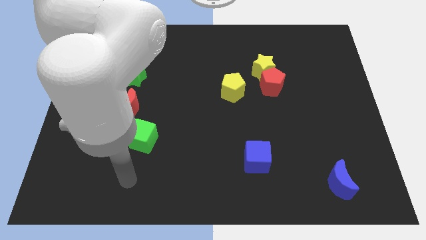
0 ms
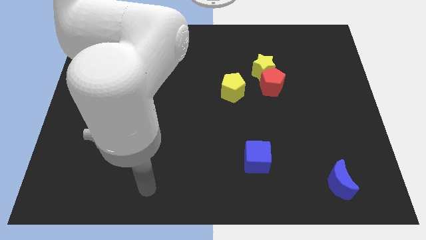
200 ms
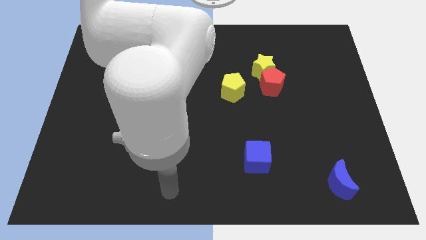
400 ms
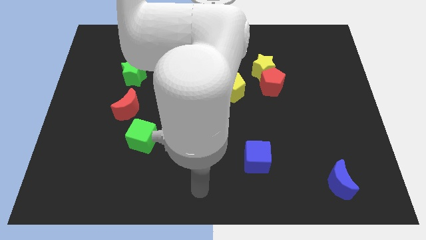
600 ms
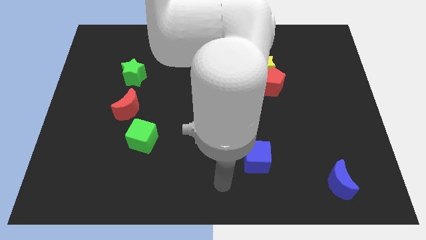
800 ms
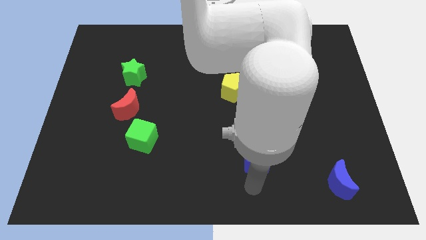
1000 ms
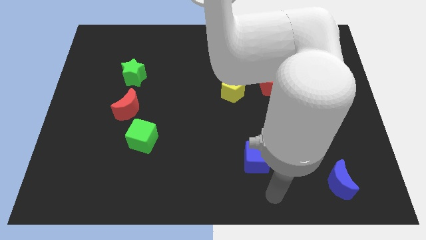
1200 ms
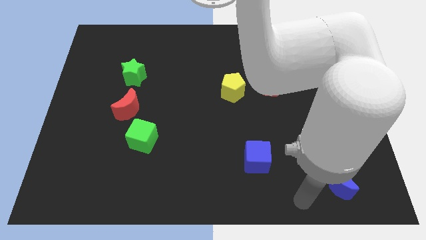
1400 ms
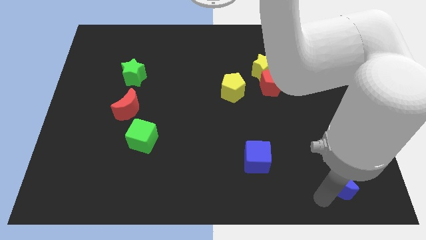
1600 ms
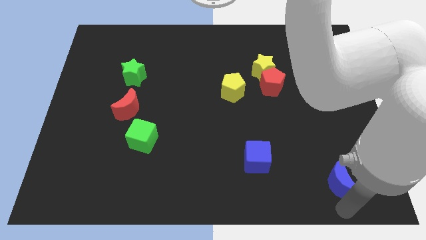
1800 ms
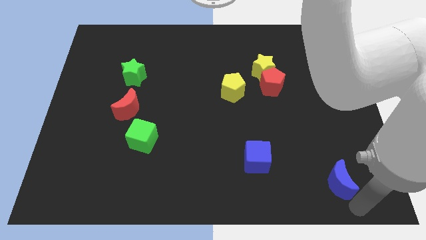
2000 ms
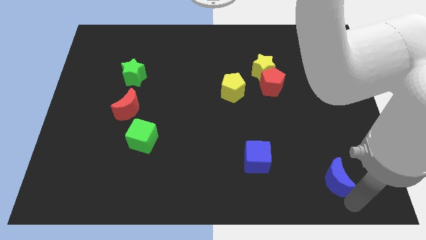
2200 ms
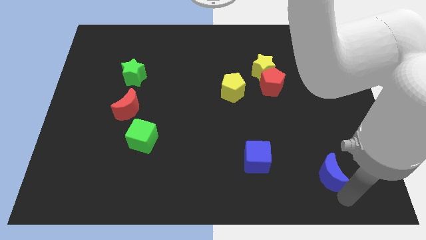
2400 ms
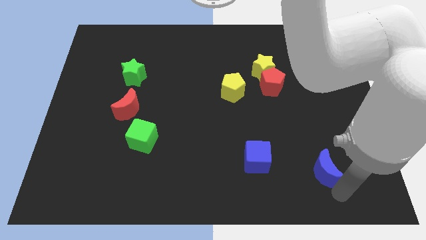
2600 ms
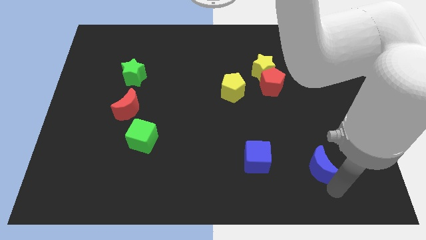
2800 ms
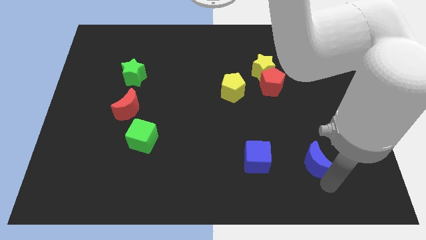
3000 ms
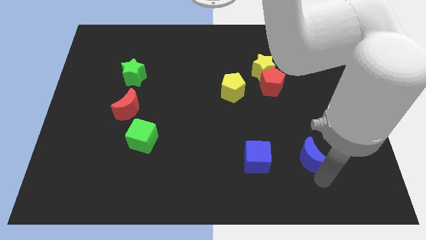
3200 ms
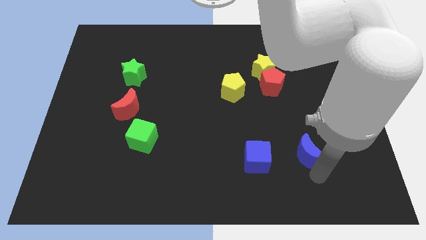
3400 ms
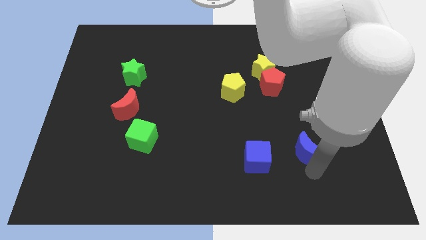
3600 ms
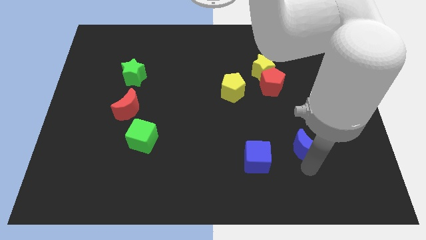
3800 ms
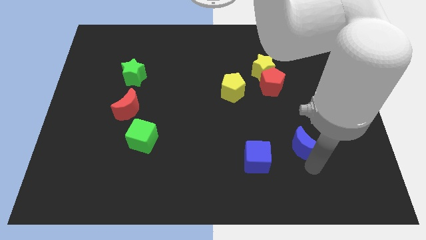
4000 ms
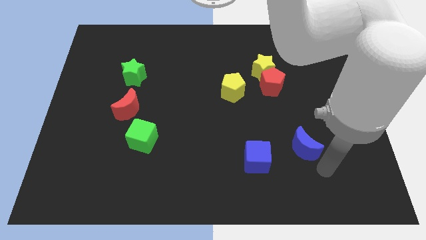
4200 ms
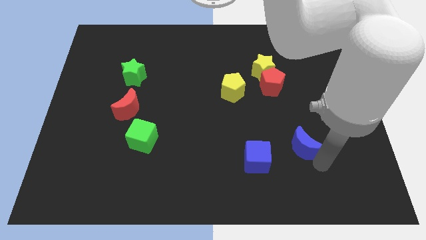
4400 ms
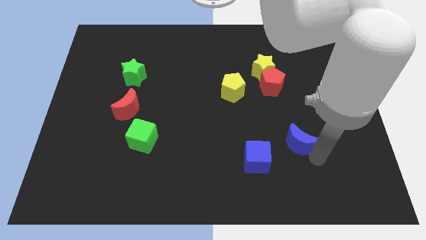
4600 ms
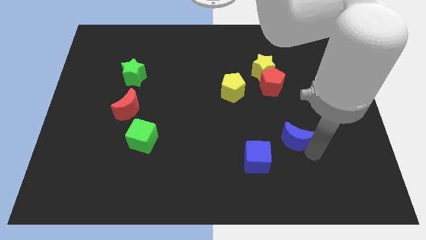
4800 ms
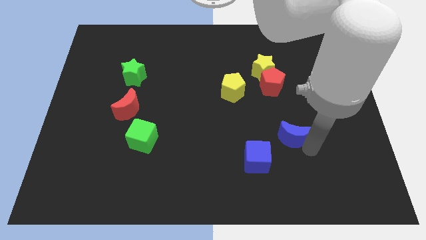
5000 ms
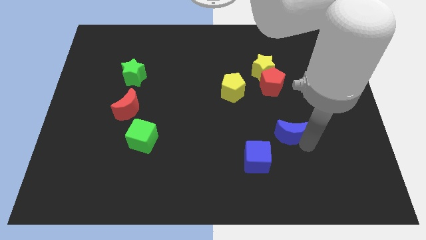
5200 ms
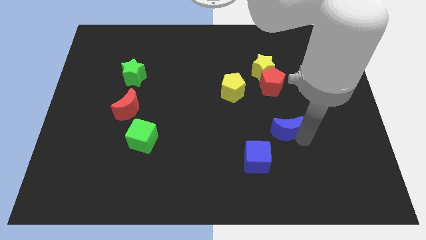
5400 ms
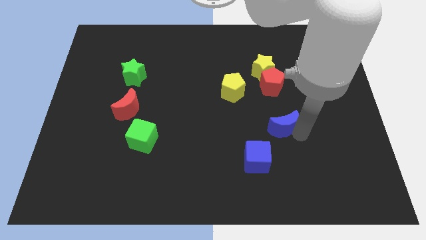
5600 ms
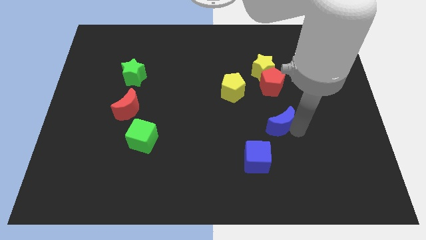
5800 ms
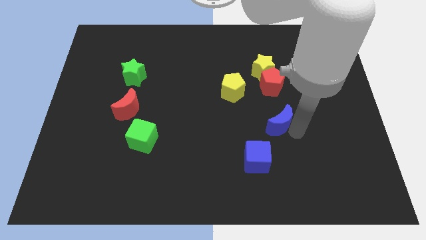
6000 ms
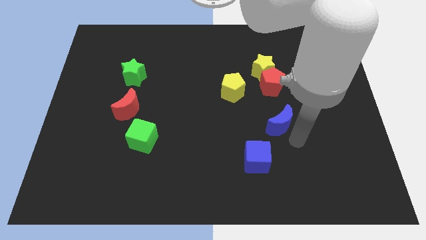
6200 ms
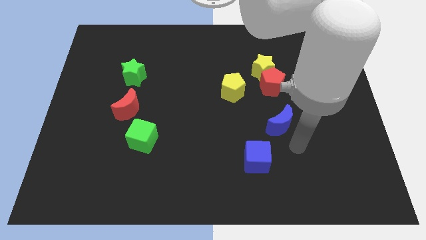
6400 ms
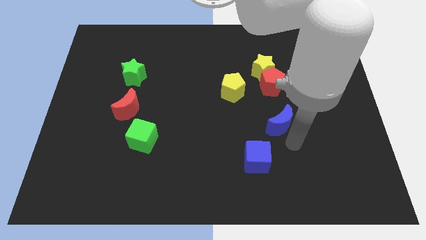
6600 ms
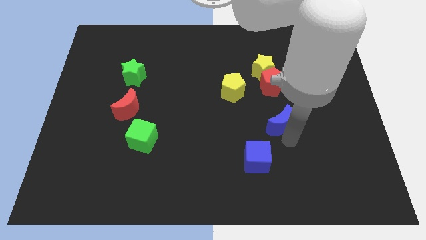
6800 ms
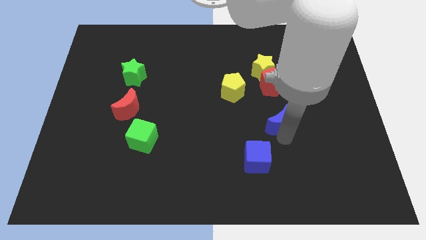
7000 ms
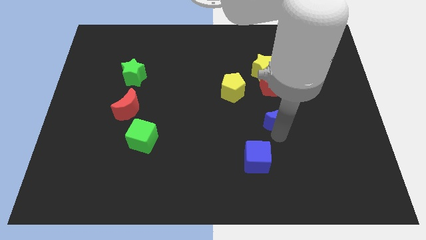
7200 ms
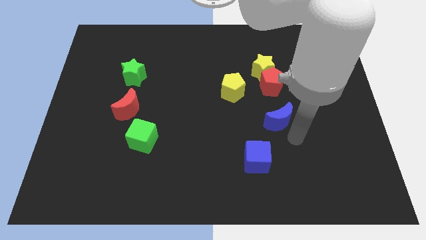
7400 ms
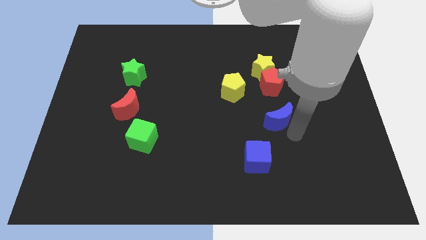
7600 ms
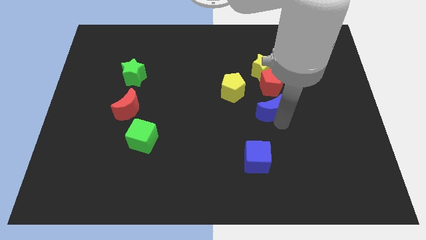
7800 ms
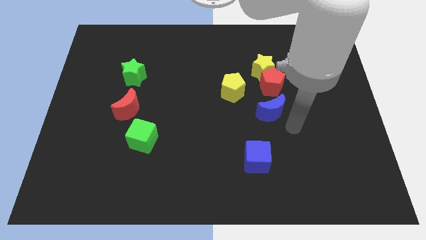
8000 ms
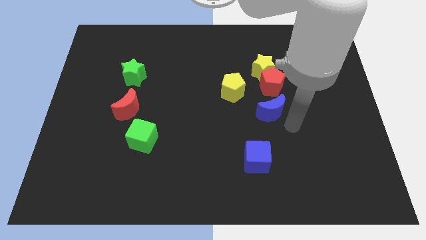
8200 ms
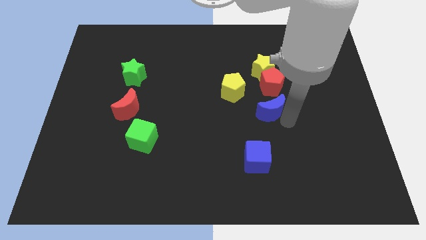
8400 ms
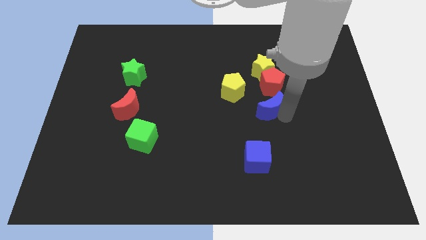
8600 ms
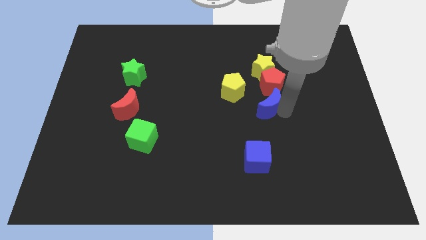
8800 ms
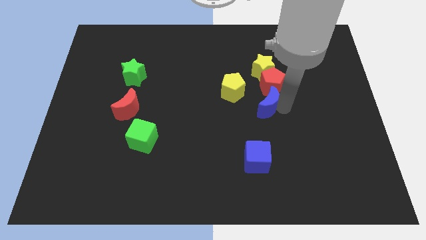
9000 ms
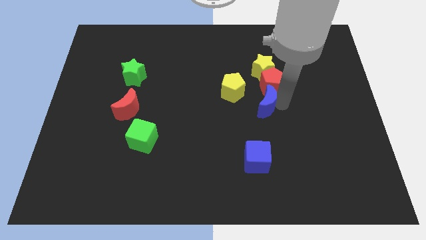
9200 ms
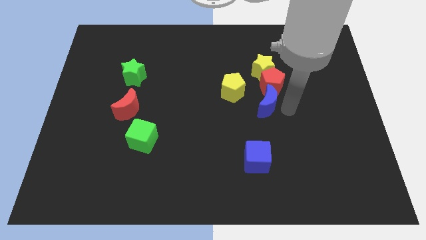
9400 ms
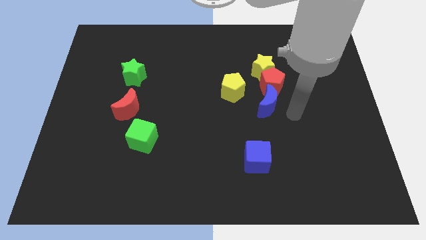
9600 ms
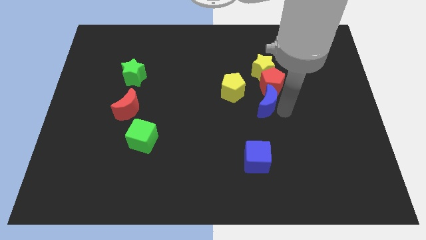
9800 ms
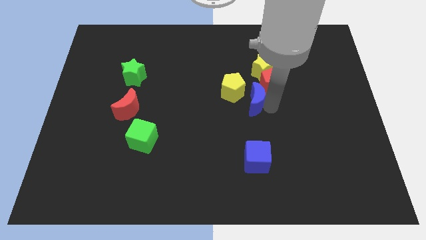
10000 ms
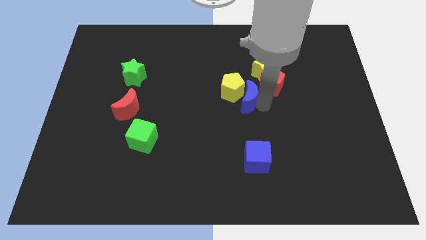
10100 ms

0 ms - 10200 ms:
move the blue moon towards the yellow pentagon

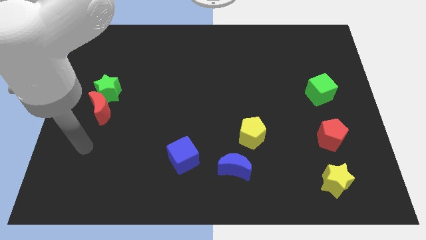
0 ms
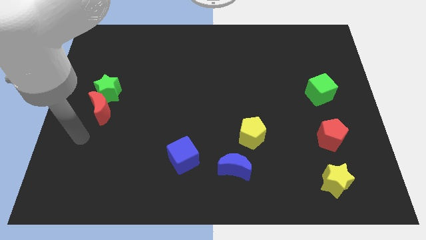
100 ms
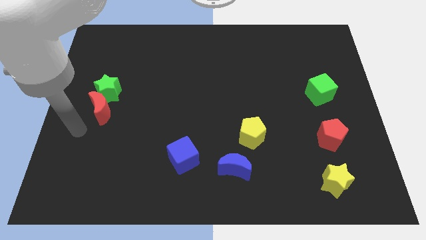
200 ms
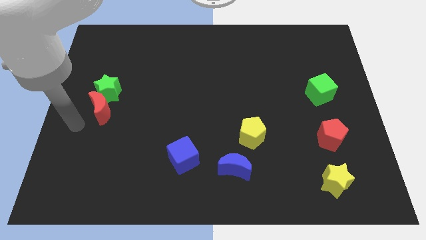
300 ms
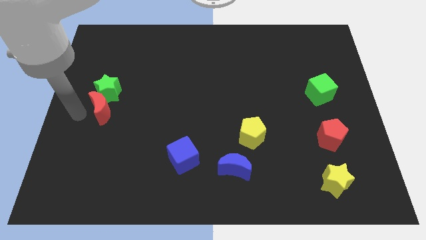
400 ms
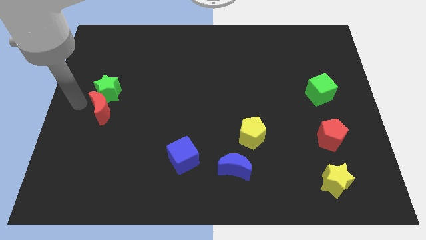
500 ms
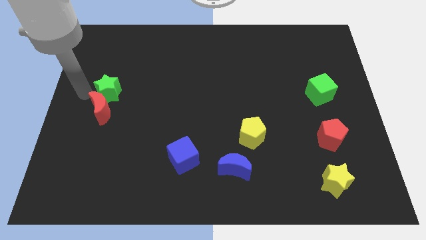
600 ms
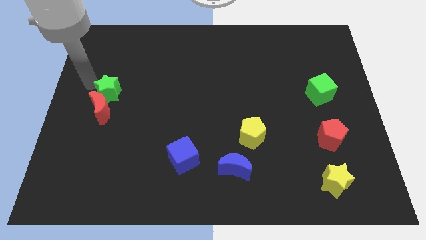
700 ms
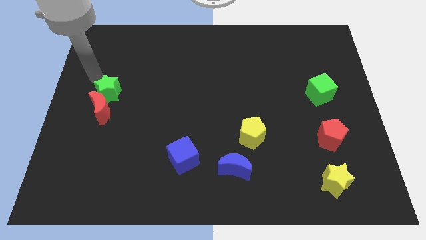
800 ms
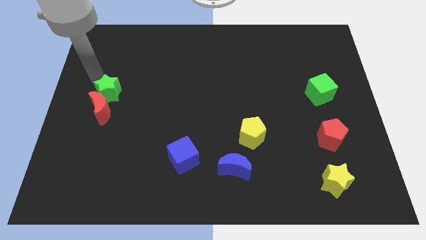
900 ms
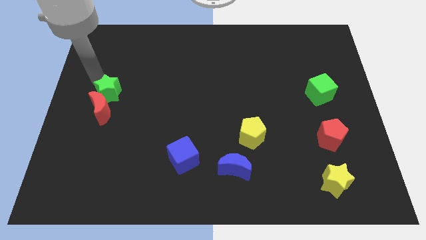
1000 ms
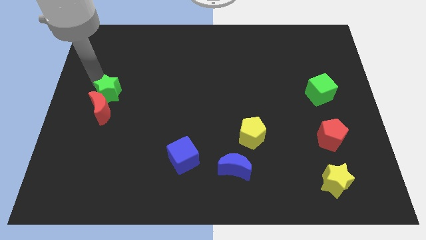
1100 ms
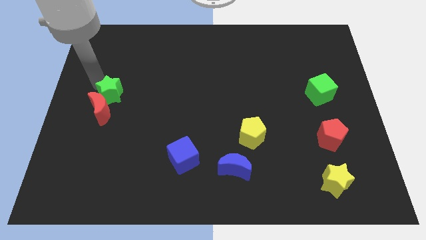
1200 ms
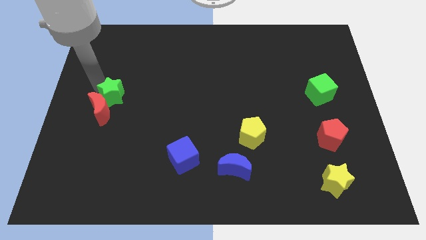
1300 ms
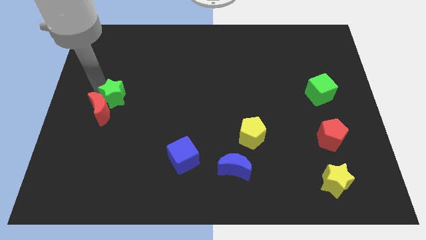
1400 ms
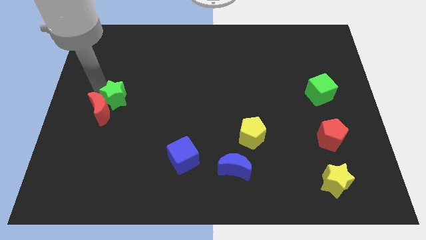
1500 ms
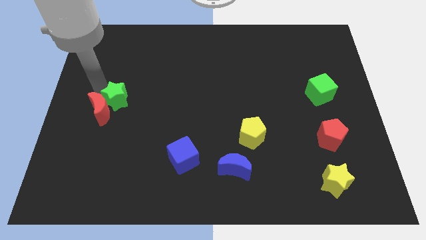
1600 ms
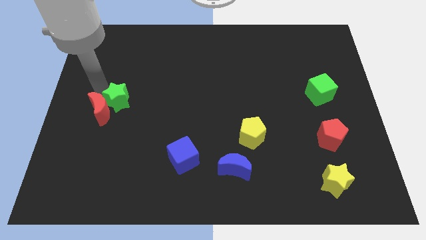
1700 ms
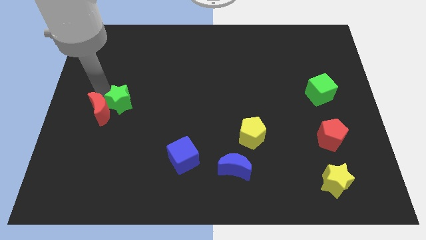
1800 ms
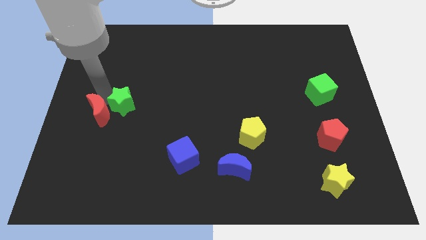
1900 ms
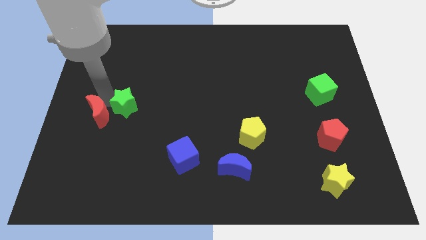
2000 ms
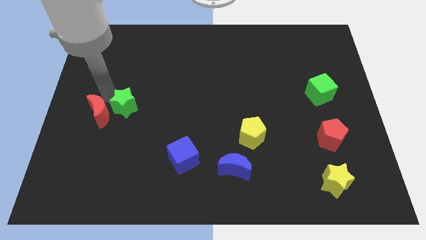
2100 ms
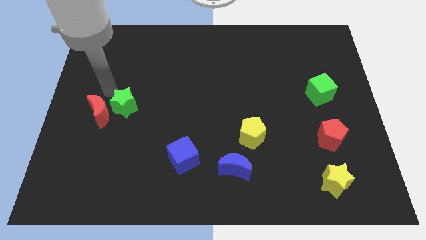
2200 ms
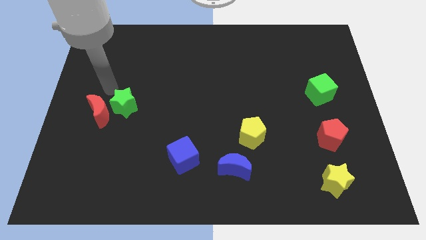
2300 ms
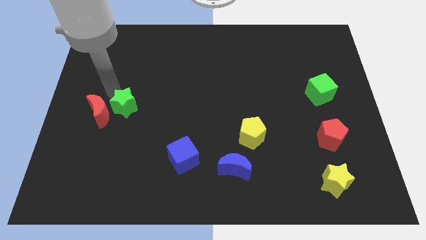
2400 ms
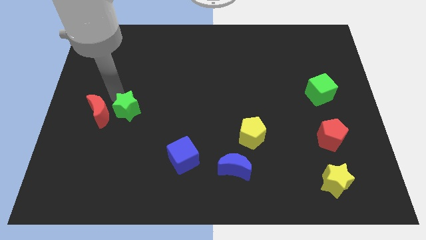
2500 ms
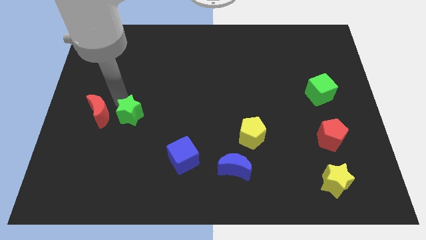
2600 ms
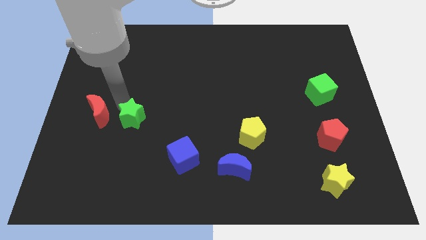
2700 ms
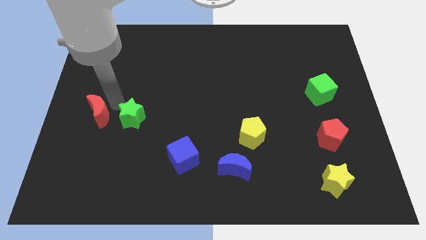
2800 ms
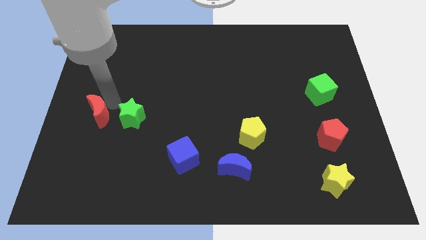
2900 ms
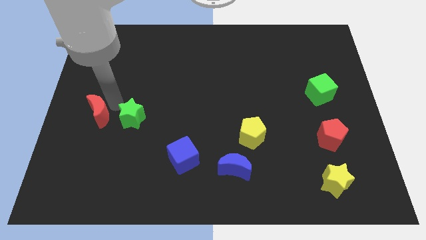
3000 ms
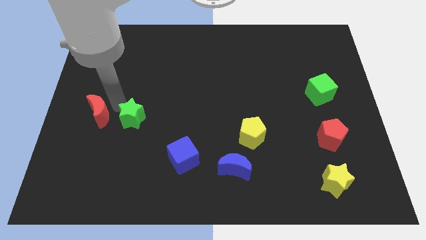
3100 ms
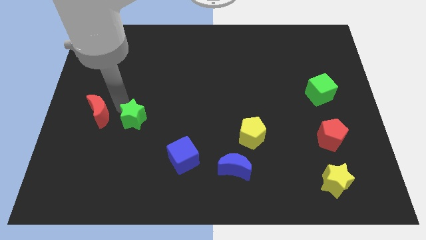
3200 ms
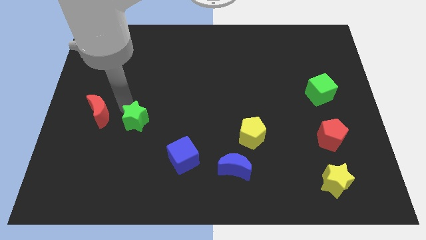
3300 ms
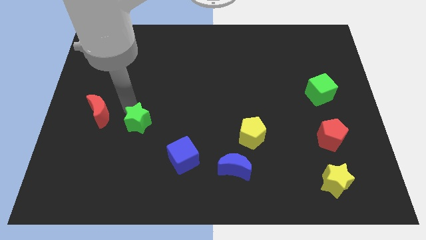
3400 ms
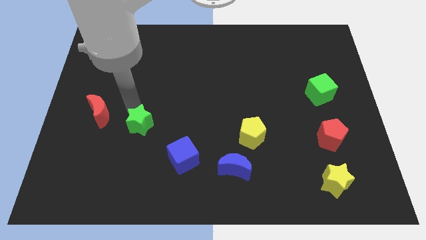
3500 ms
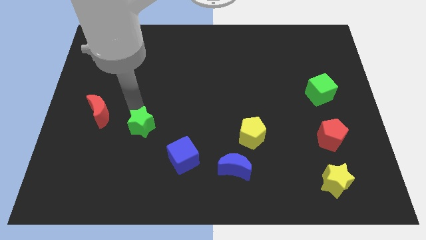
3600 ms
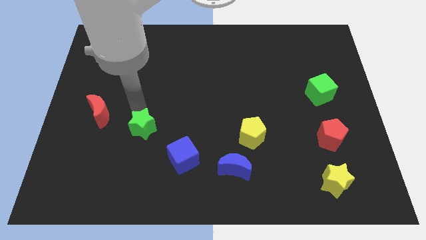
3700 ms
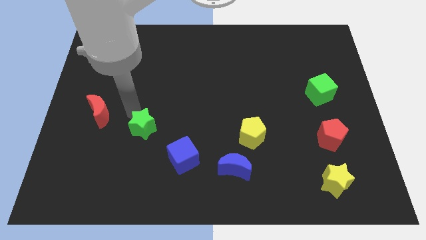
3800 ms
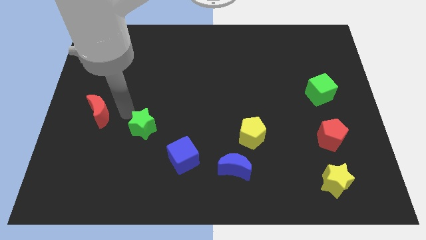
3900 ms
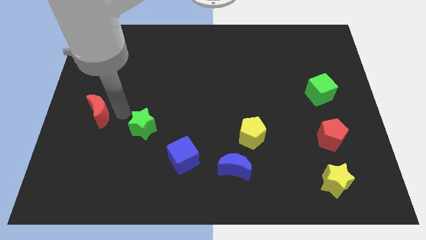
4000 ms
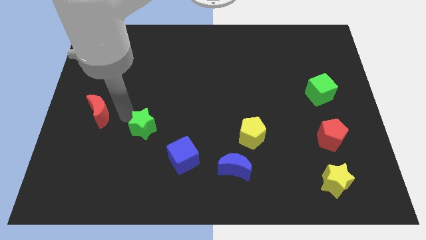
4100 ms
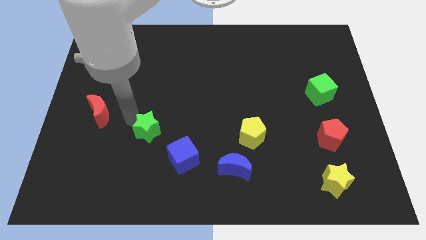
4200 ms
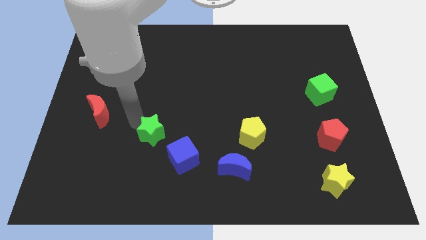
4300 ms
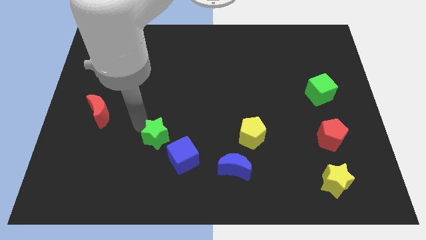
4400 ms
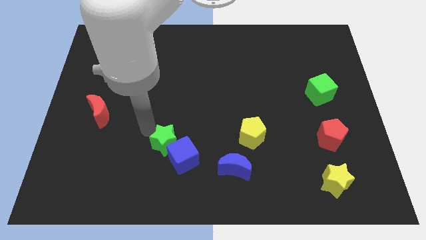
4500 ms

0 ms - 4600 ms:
push the green star close to the blue cube
